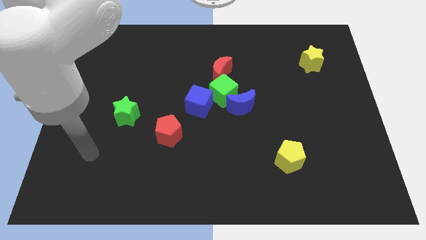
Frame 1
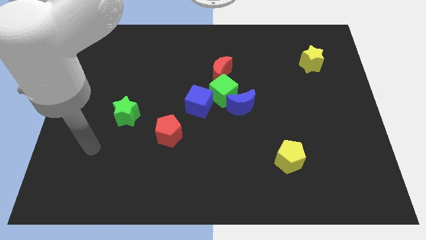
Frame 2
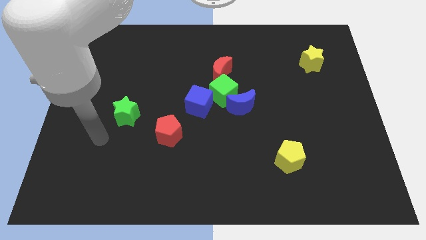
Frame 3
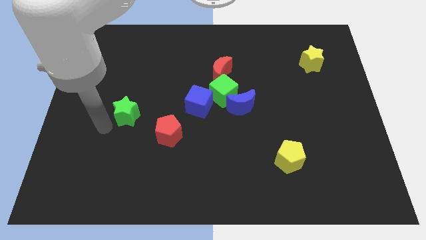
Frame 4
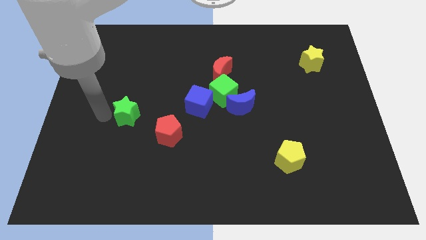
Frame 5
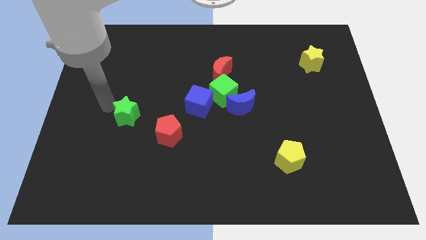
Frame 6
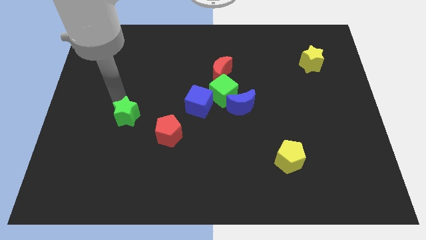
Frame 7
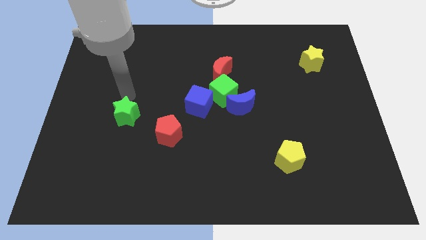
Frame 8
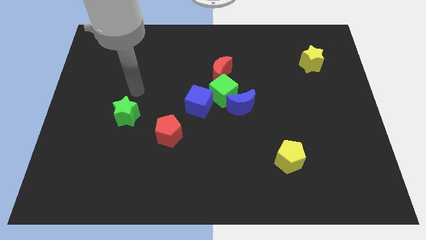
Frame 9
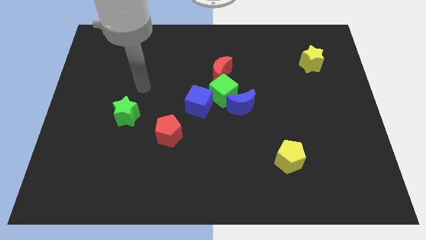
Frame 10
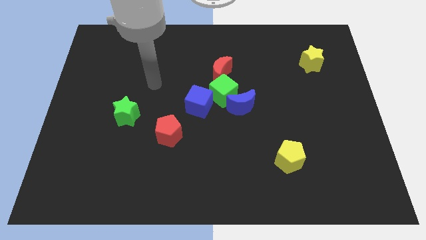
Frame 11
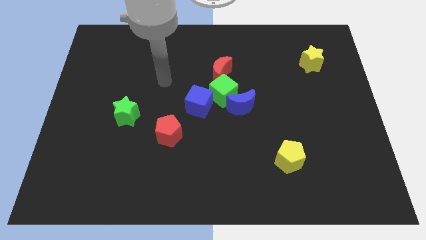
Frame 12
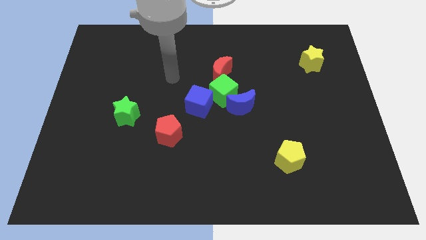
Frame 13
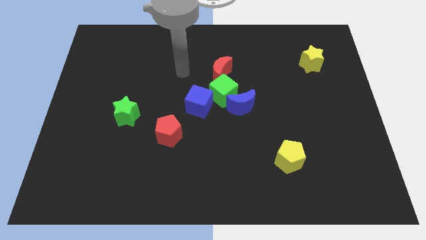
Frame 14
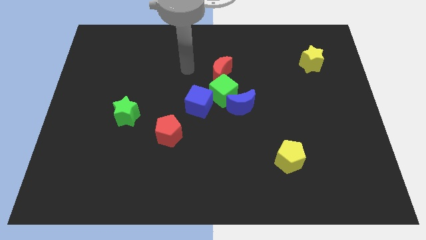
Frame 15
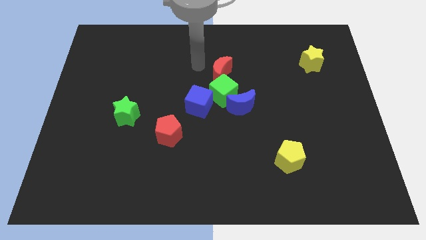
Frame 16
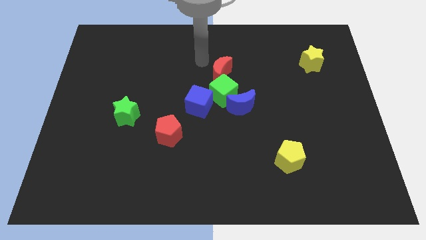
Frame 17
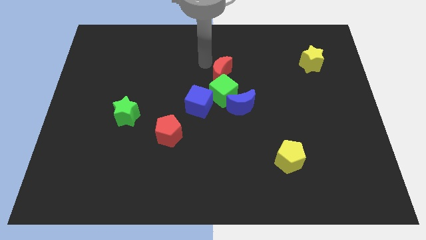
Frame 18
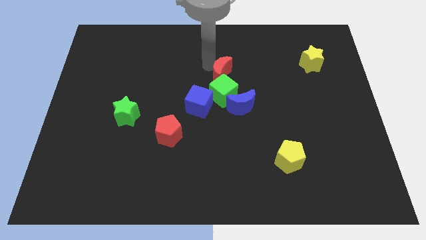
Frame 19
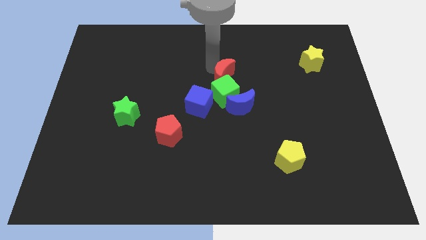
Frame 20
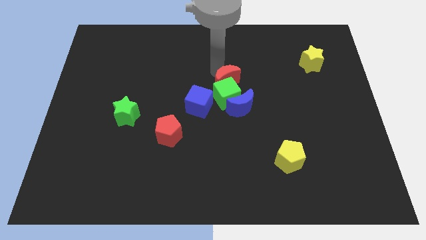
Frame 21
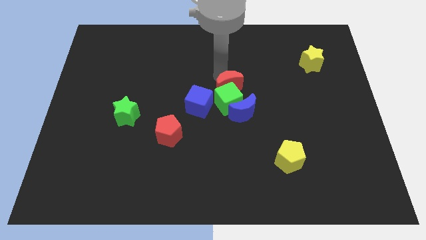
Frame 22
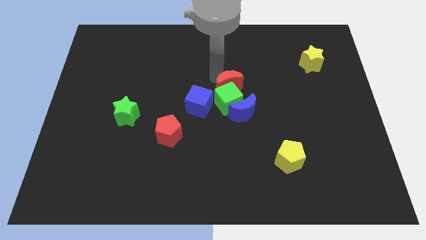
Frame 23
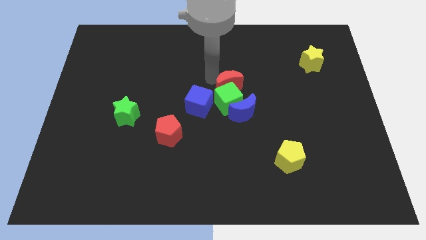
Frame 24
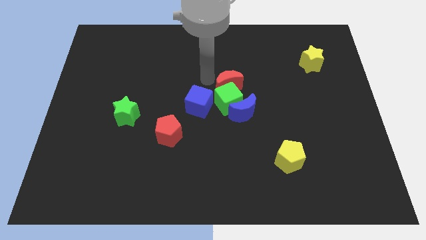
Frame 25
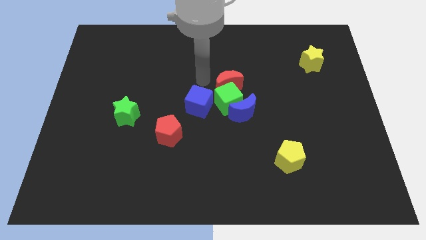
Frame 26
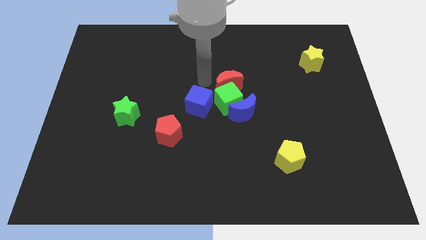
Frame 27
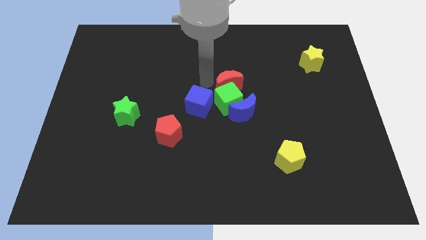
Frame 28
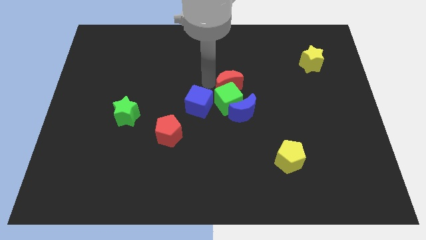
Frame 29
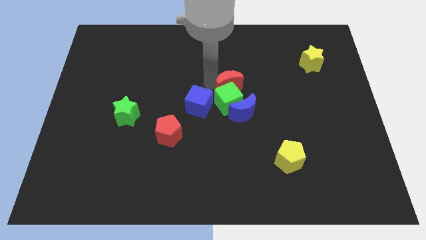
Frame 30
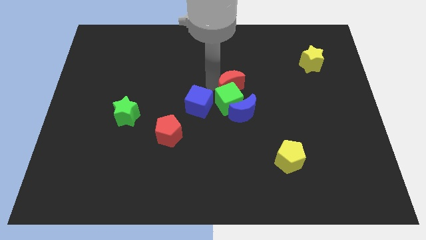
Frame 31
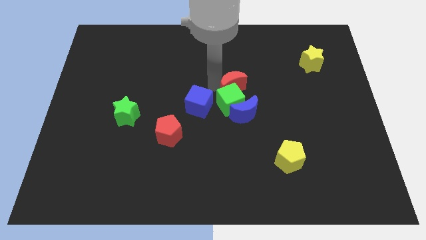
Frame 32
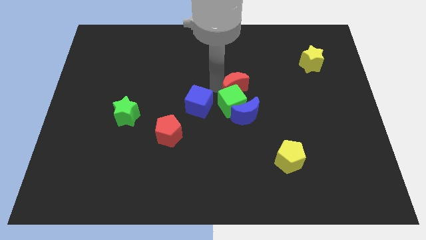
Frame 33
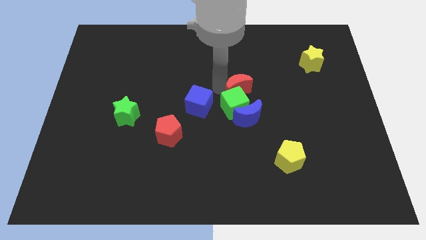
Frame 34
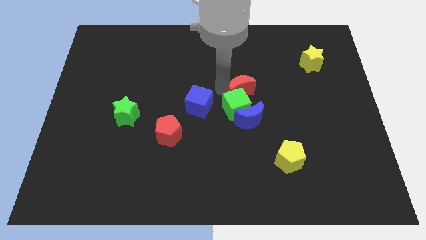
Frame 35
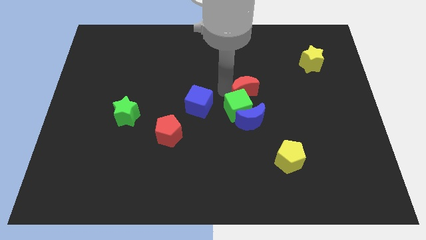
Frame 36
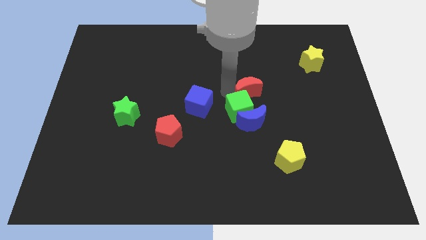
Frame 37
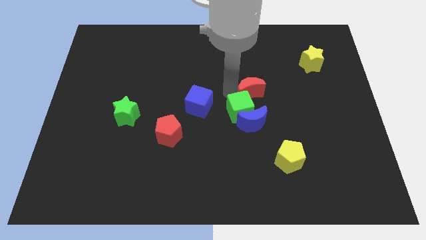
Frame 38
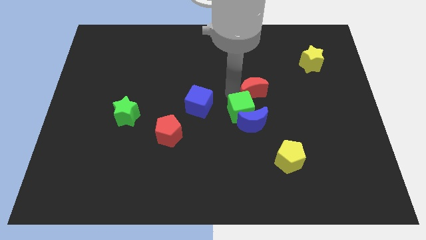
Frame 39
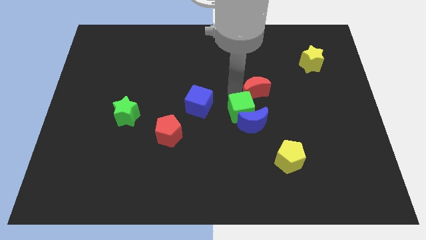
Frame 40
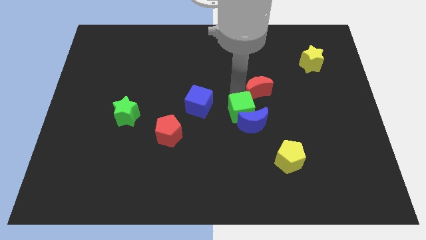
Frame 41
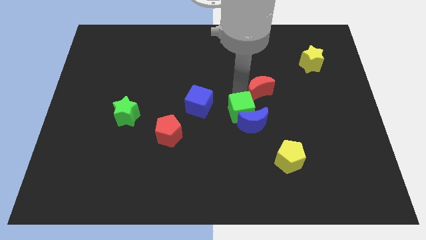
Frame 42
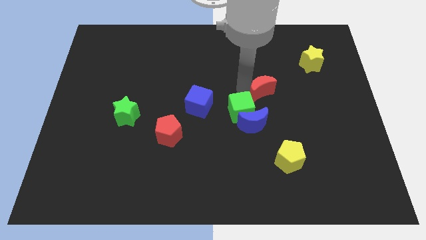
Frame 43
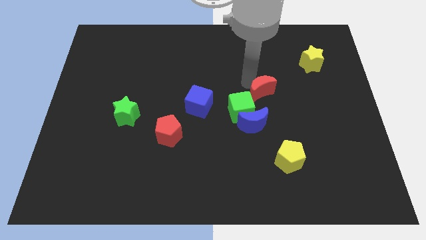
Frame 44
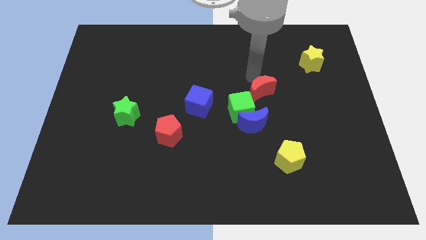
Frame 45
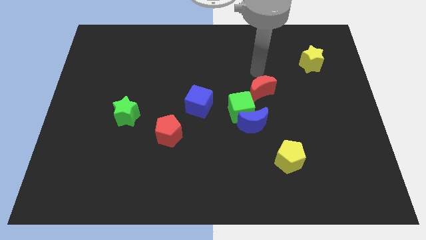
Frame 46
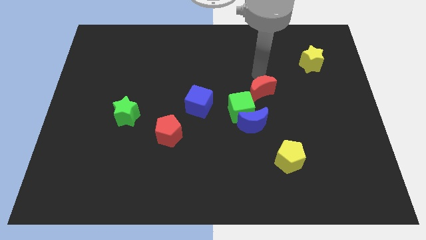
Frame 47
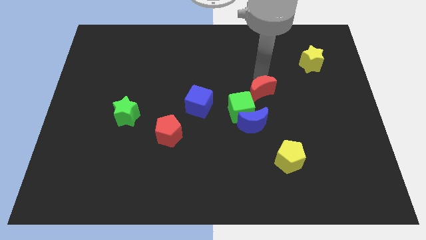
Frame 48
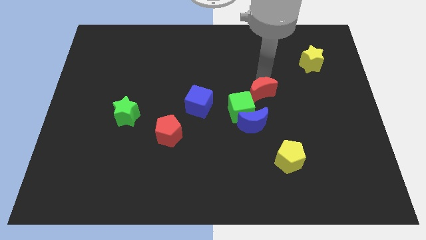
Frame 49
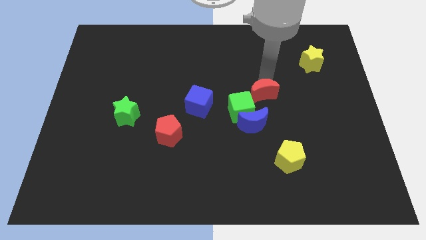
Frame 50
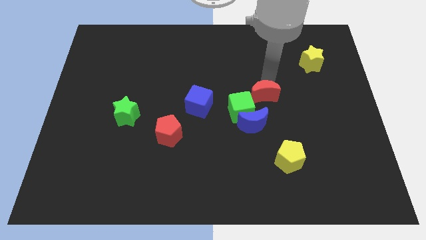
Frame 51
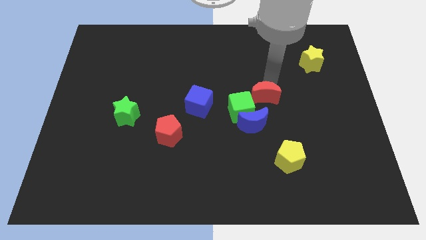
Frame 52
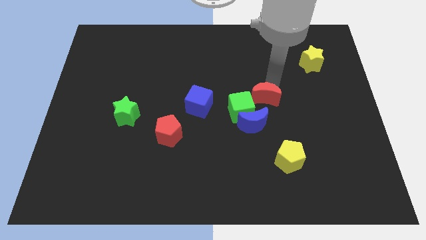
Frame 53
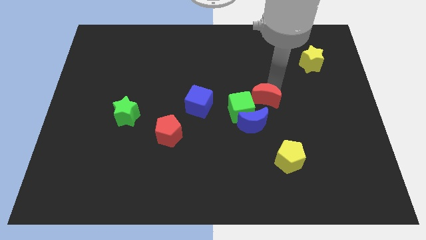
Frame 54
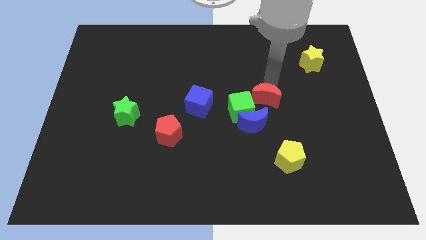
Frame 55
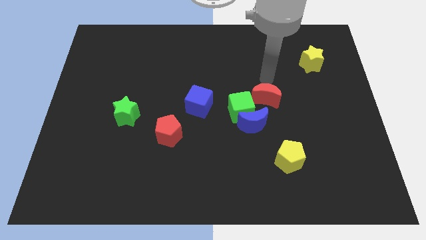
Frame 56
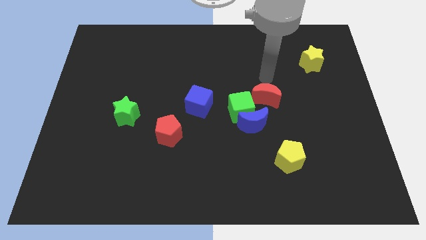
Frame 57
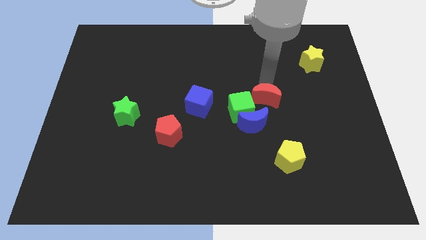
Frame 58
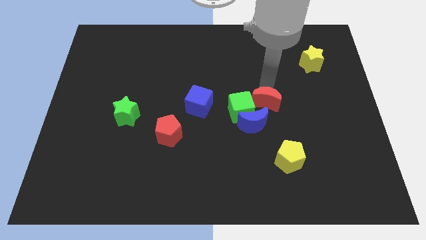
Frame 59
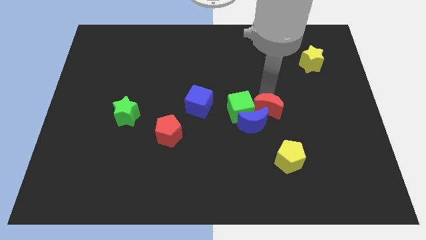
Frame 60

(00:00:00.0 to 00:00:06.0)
put the red moon to the bottom right of the green cube

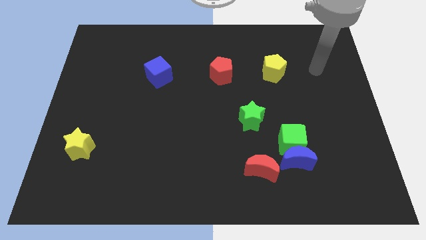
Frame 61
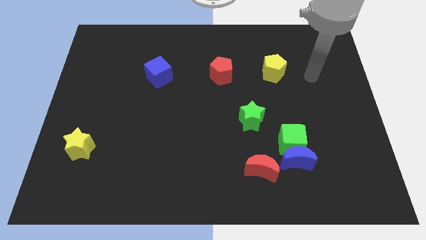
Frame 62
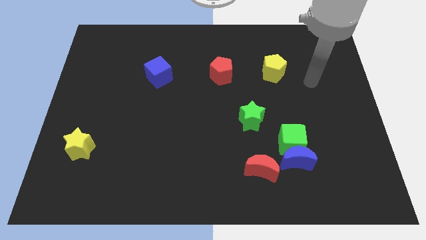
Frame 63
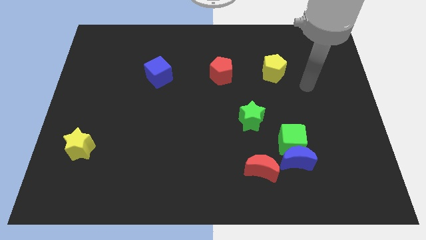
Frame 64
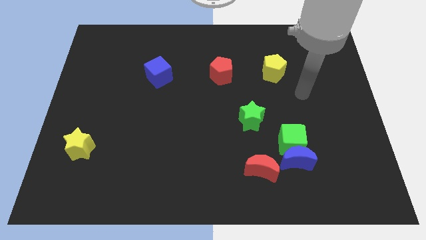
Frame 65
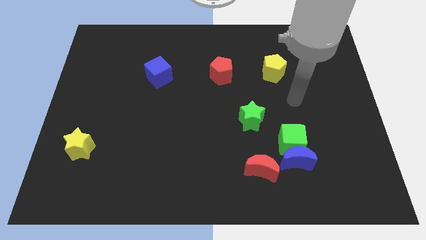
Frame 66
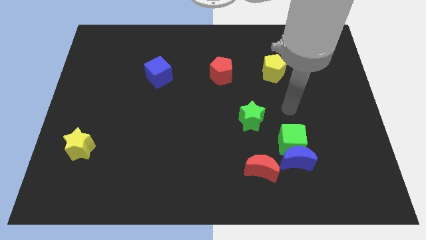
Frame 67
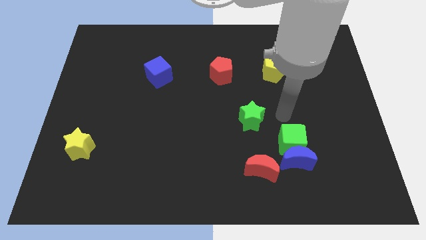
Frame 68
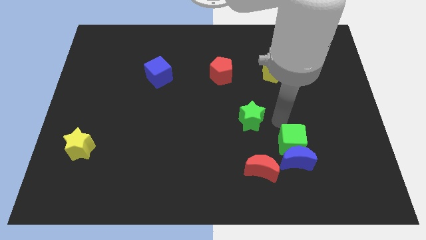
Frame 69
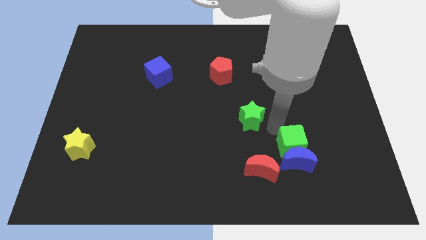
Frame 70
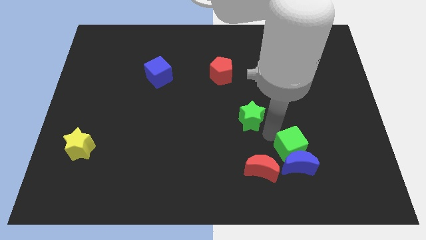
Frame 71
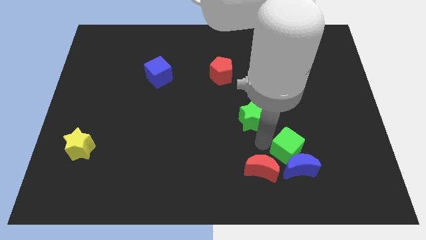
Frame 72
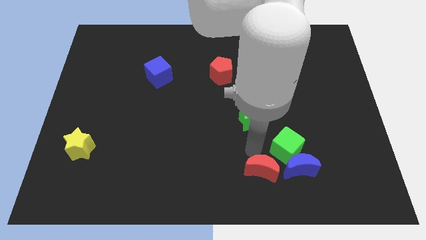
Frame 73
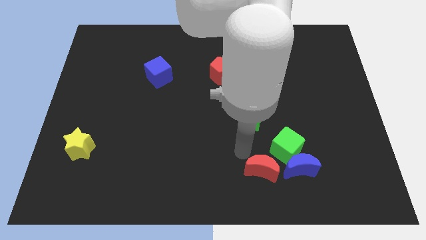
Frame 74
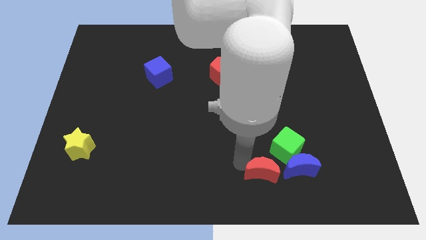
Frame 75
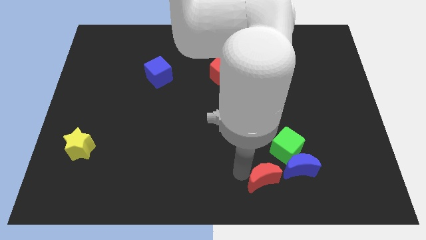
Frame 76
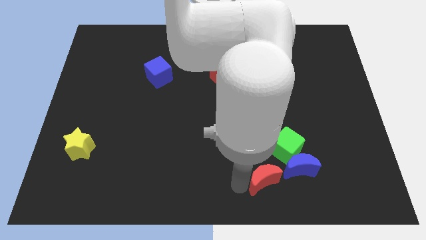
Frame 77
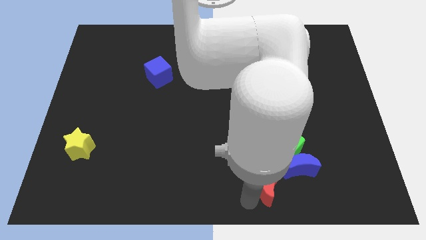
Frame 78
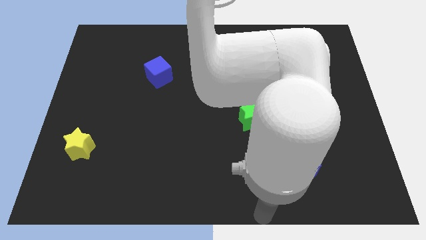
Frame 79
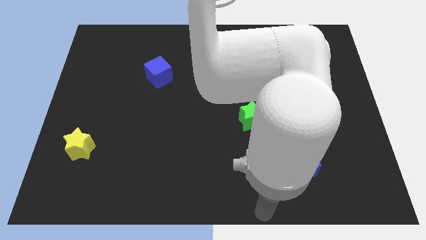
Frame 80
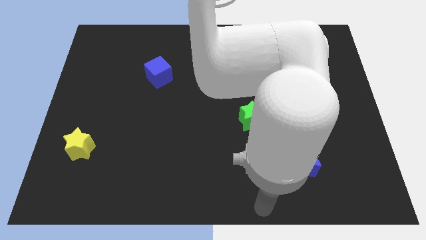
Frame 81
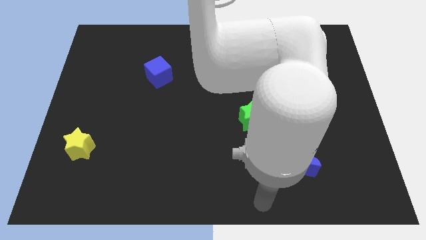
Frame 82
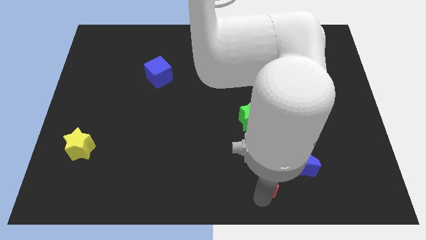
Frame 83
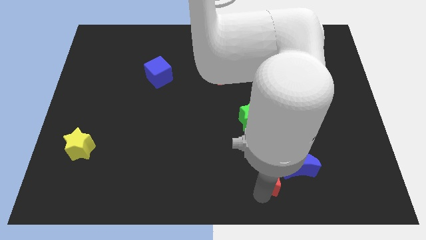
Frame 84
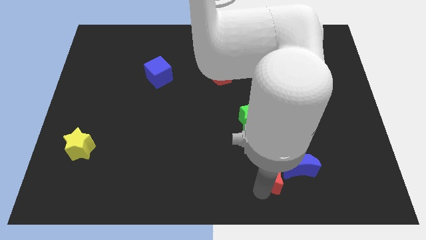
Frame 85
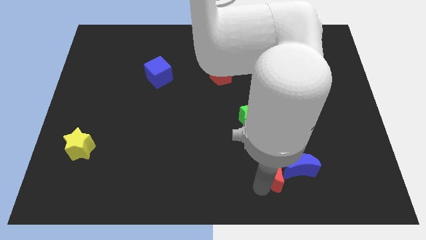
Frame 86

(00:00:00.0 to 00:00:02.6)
move the red moon to the top left side of the blue moon
